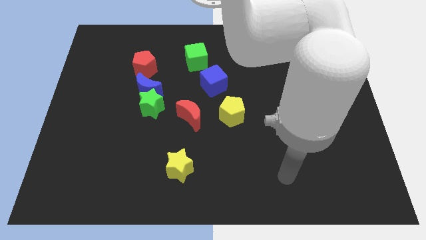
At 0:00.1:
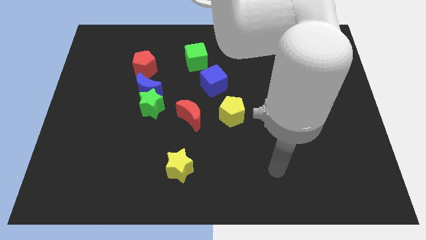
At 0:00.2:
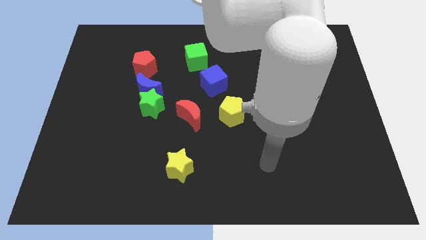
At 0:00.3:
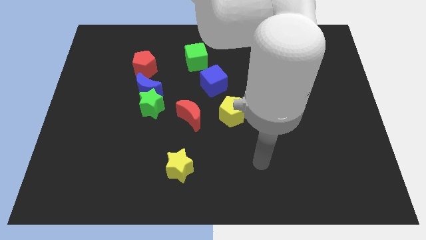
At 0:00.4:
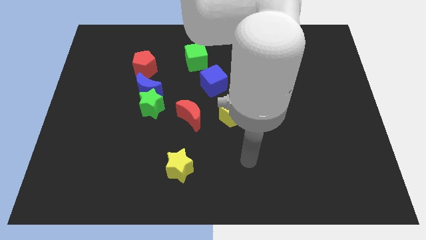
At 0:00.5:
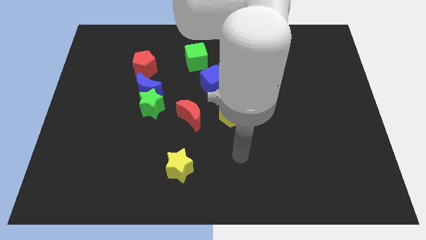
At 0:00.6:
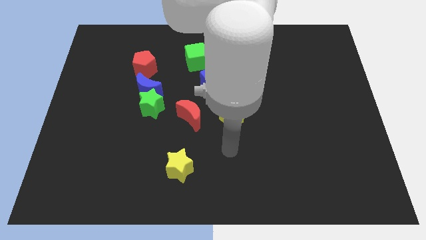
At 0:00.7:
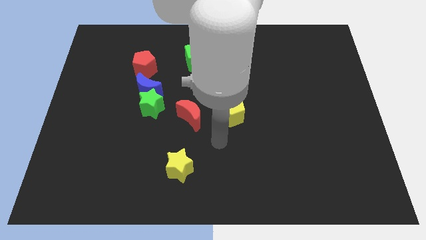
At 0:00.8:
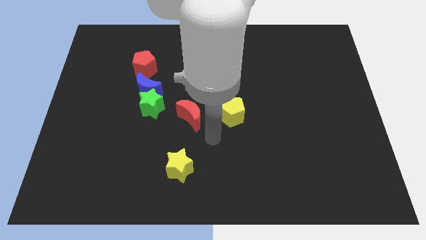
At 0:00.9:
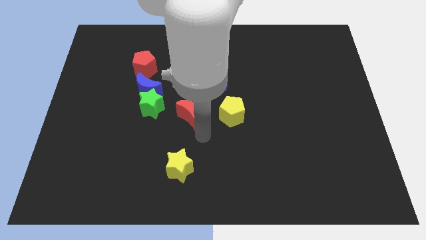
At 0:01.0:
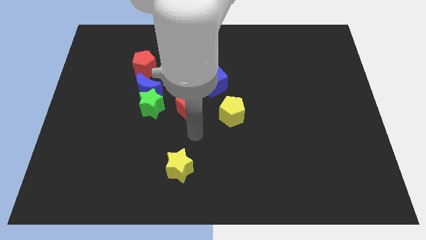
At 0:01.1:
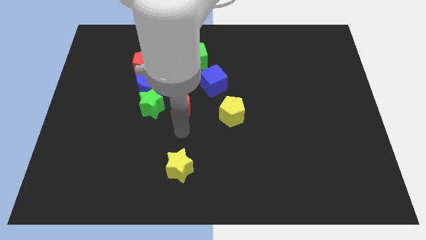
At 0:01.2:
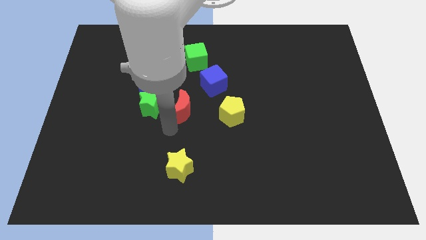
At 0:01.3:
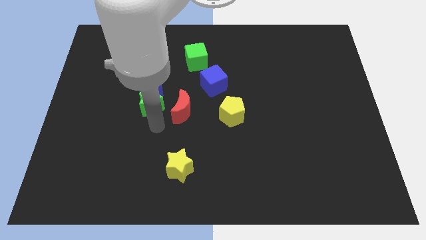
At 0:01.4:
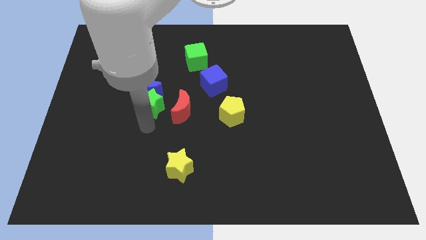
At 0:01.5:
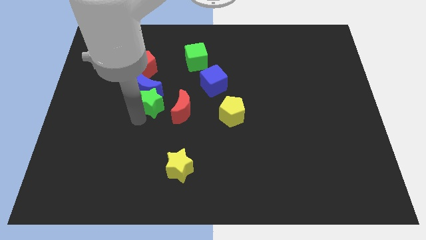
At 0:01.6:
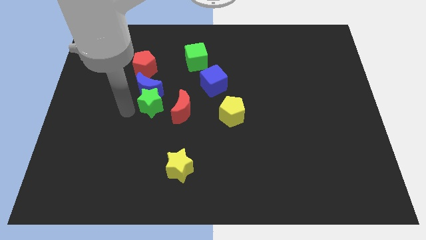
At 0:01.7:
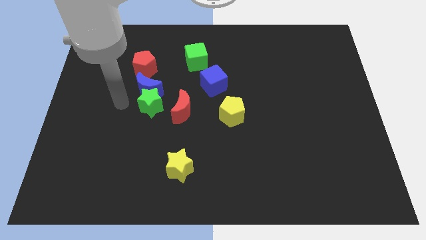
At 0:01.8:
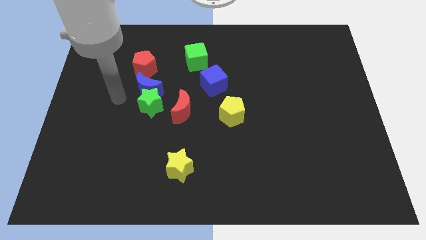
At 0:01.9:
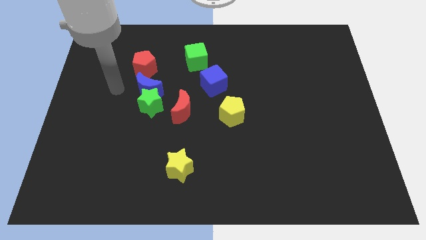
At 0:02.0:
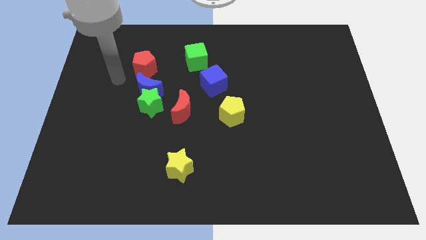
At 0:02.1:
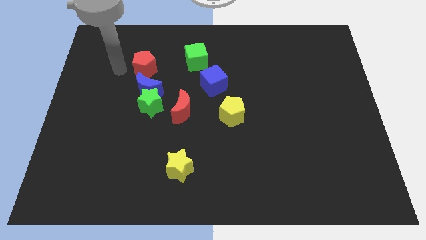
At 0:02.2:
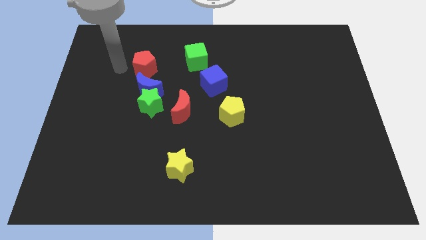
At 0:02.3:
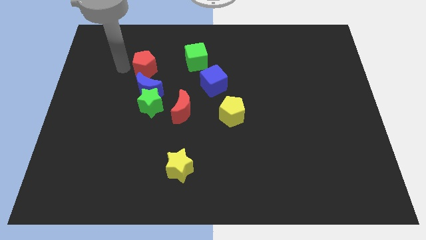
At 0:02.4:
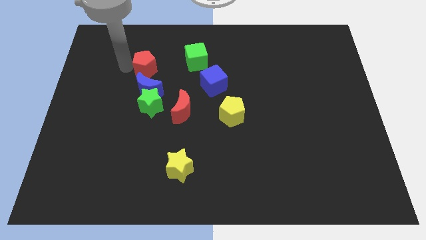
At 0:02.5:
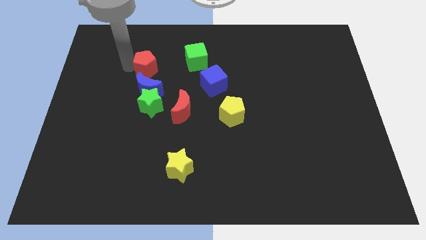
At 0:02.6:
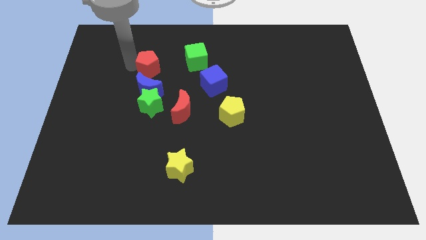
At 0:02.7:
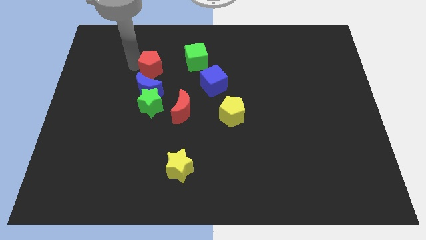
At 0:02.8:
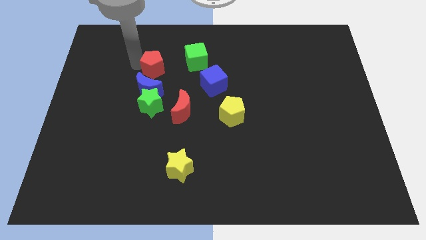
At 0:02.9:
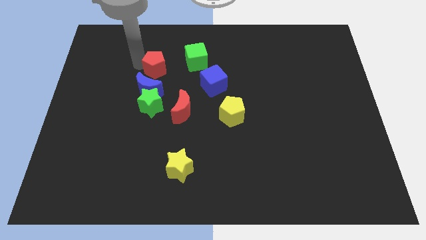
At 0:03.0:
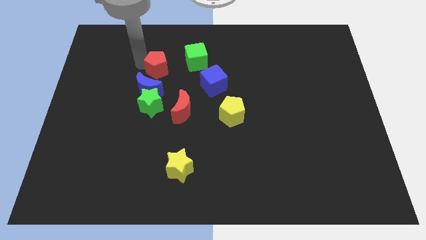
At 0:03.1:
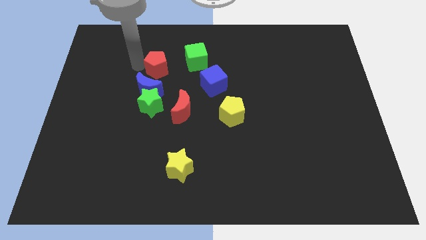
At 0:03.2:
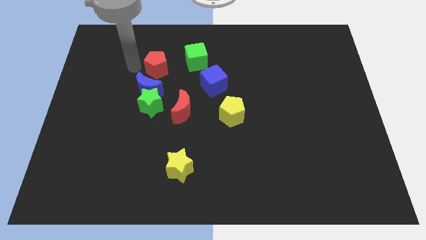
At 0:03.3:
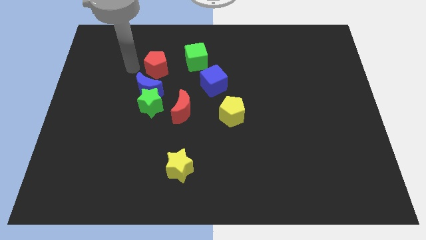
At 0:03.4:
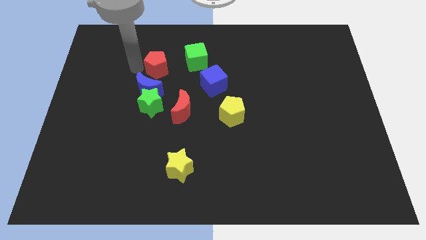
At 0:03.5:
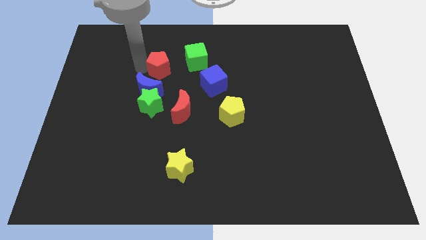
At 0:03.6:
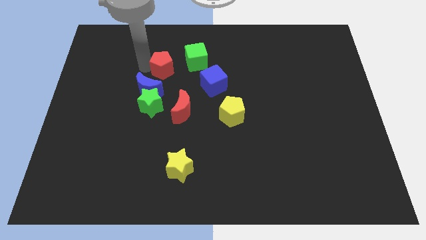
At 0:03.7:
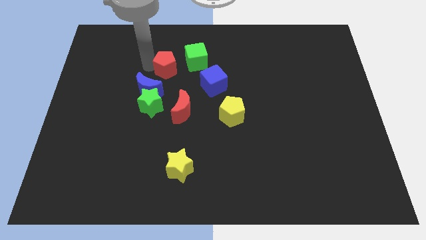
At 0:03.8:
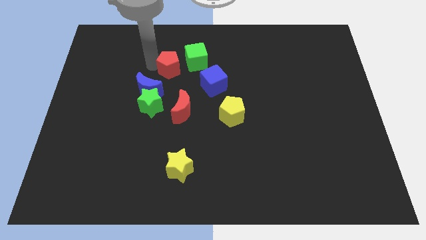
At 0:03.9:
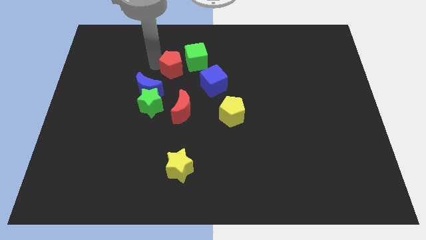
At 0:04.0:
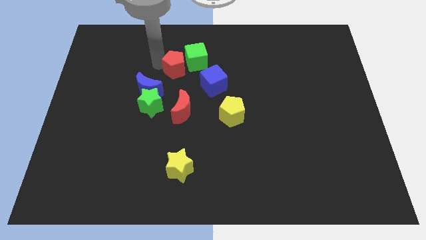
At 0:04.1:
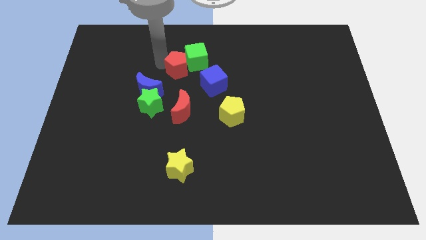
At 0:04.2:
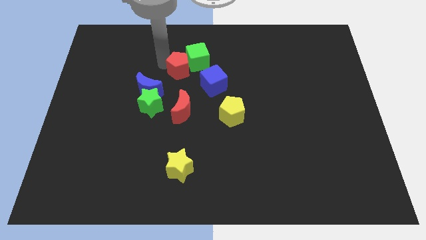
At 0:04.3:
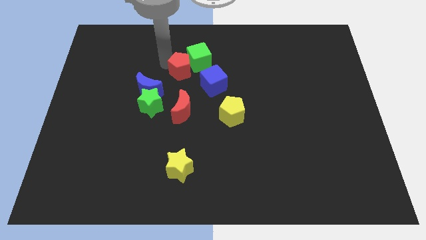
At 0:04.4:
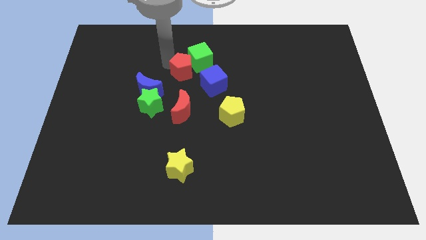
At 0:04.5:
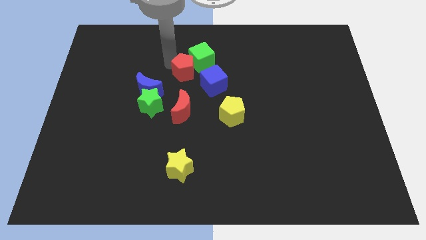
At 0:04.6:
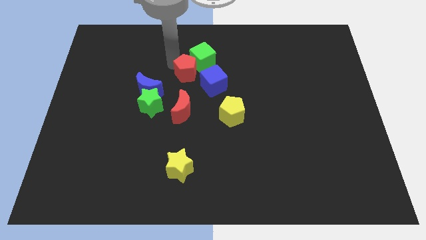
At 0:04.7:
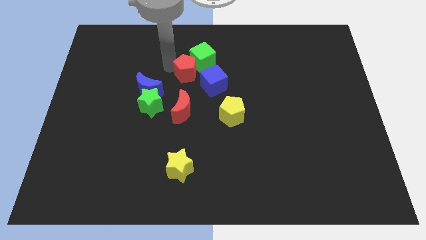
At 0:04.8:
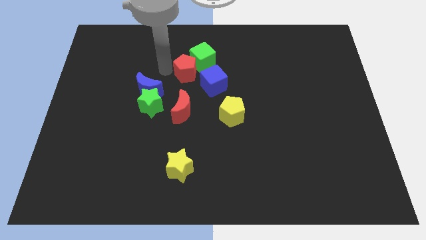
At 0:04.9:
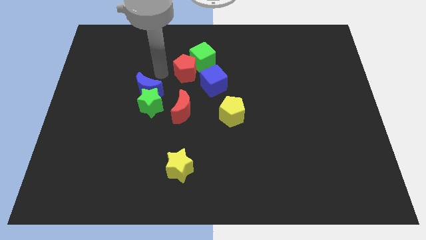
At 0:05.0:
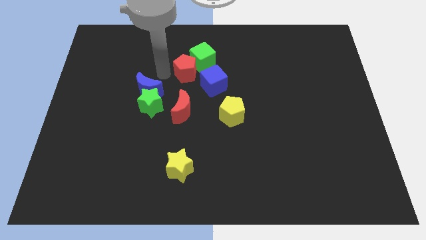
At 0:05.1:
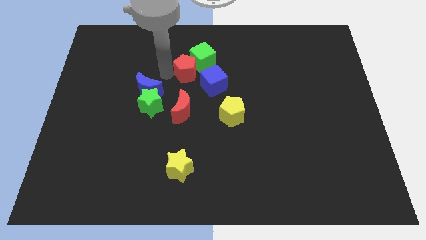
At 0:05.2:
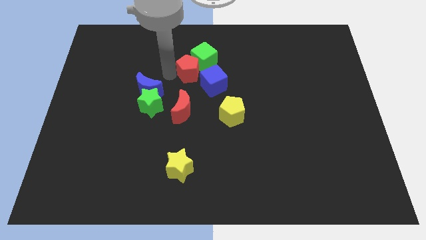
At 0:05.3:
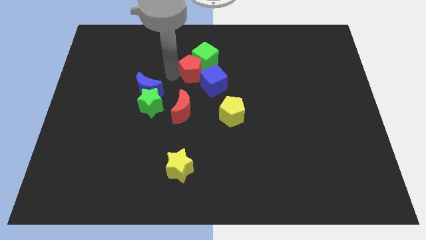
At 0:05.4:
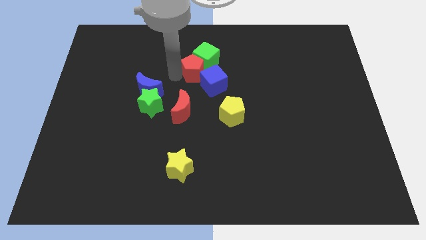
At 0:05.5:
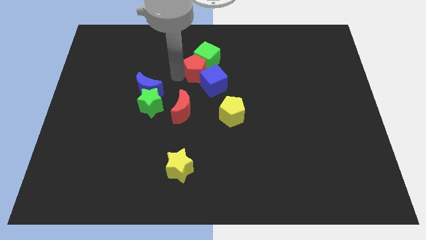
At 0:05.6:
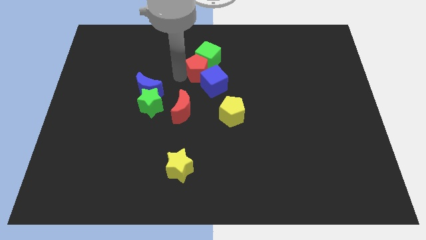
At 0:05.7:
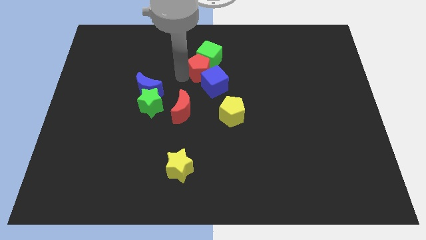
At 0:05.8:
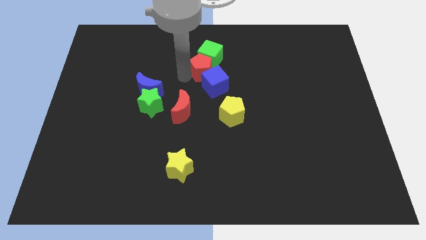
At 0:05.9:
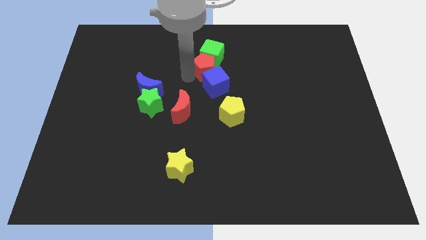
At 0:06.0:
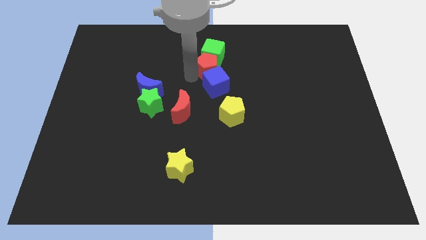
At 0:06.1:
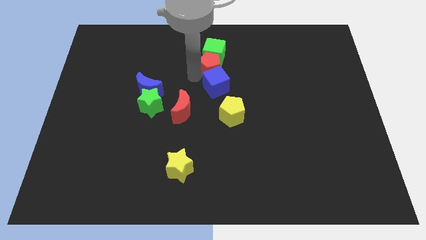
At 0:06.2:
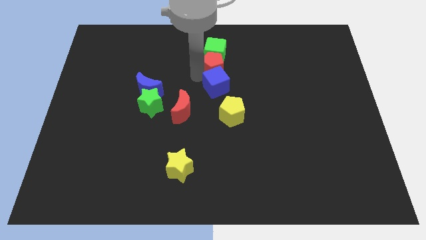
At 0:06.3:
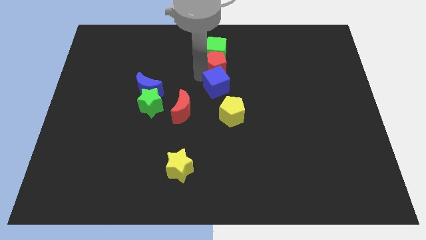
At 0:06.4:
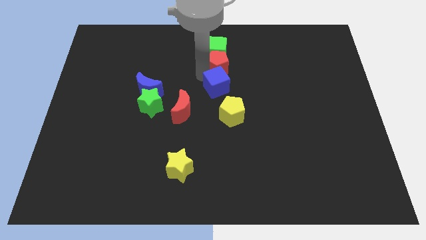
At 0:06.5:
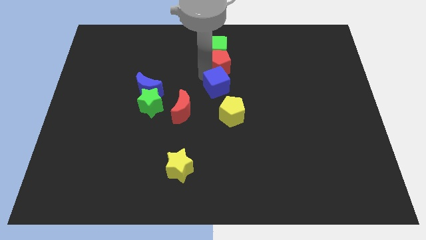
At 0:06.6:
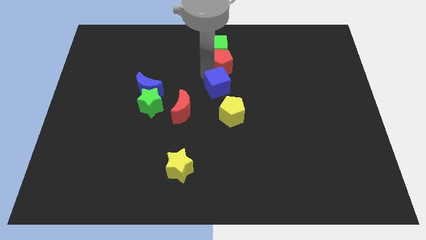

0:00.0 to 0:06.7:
slide the red pentagon right

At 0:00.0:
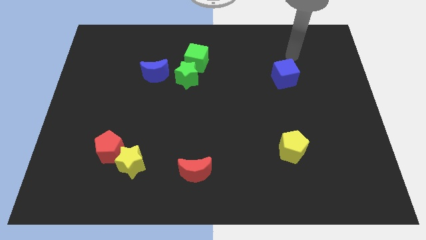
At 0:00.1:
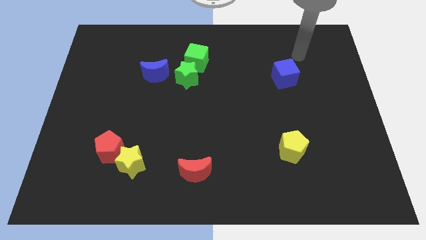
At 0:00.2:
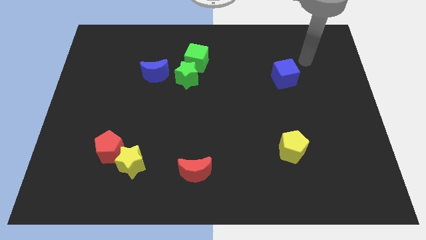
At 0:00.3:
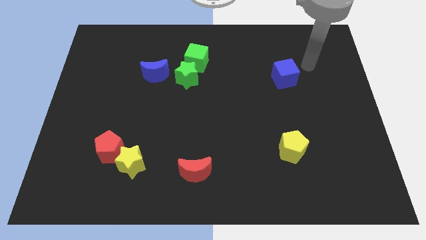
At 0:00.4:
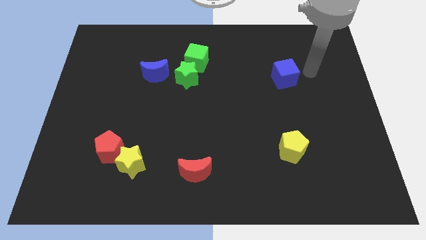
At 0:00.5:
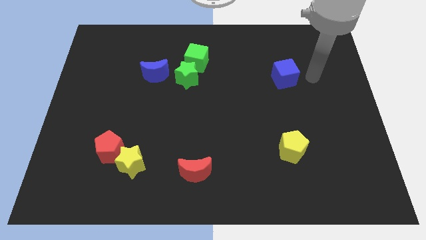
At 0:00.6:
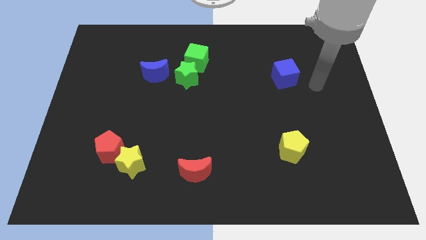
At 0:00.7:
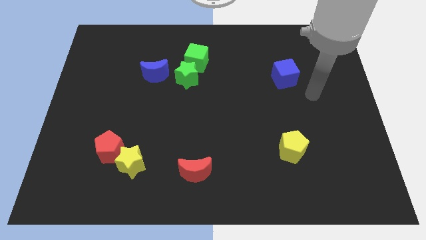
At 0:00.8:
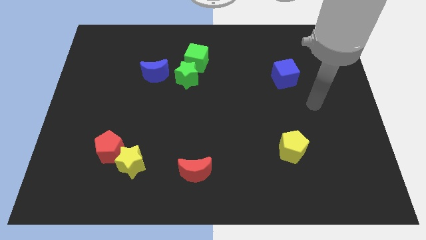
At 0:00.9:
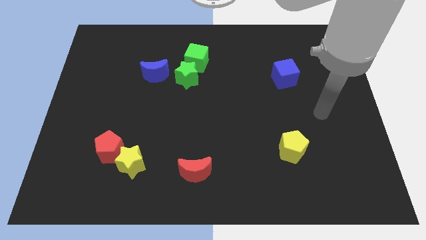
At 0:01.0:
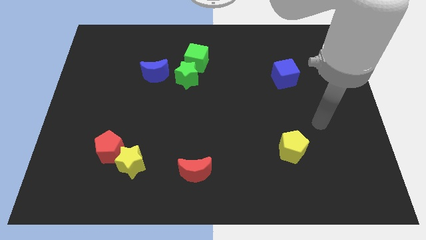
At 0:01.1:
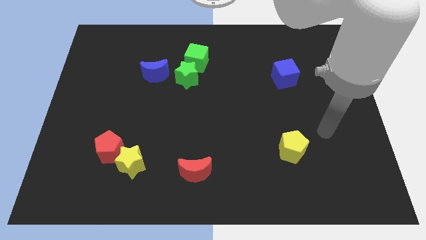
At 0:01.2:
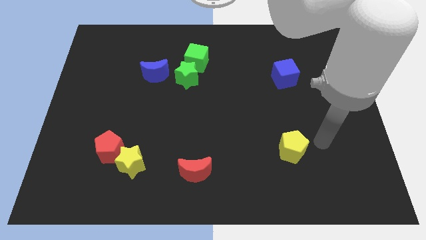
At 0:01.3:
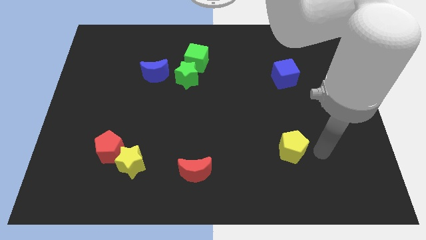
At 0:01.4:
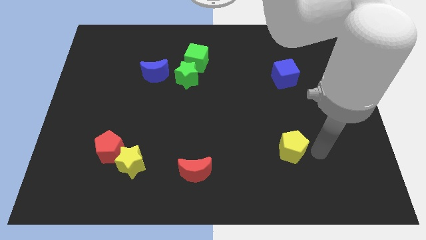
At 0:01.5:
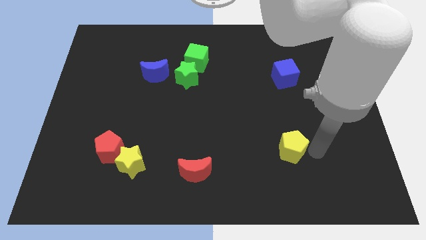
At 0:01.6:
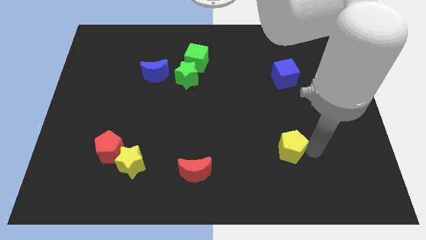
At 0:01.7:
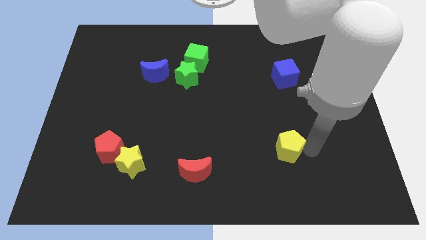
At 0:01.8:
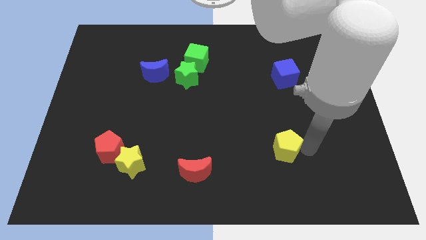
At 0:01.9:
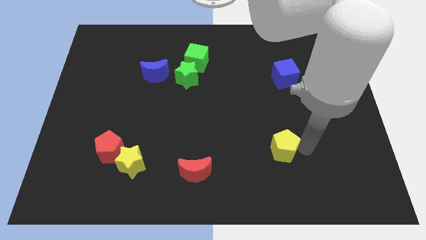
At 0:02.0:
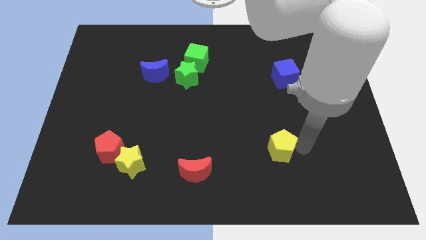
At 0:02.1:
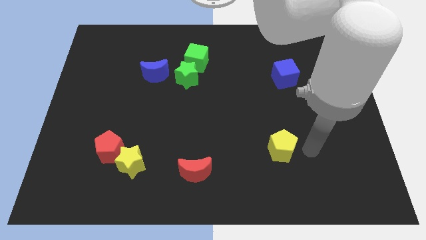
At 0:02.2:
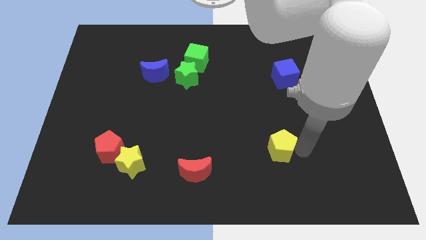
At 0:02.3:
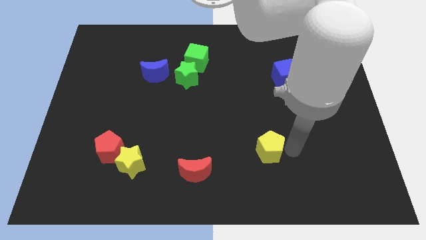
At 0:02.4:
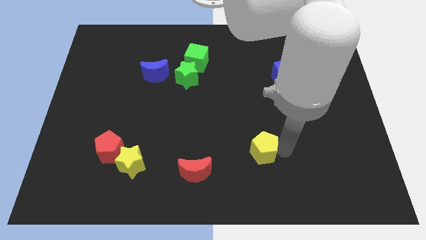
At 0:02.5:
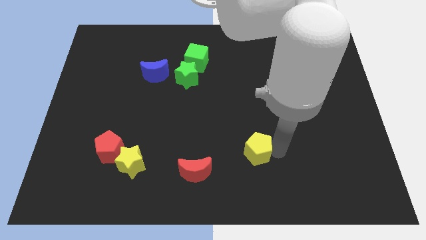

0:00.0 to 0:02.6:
slide the yellow pentagon a bit left
